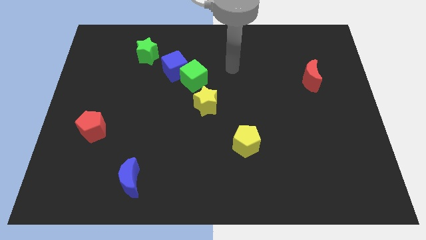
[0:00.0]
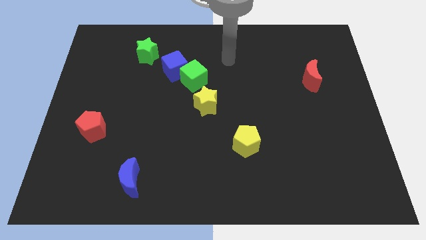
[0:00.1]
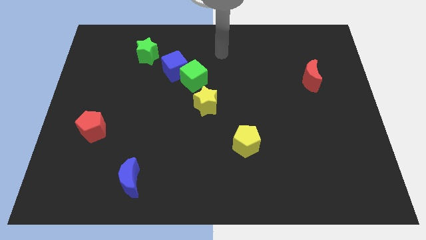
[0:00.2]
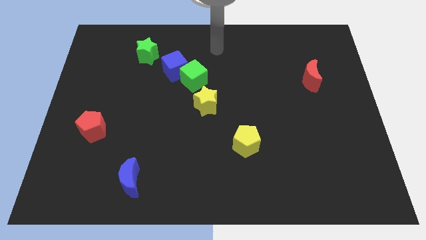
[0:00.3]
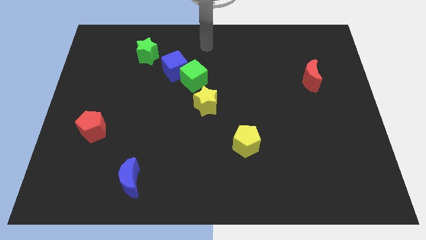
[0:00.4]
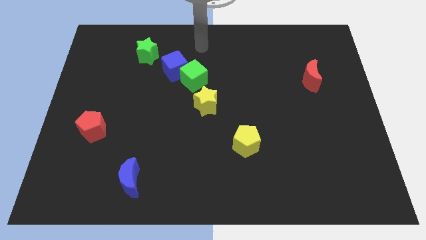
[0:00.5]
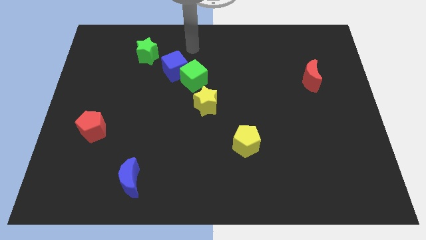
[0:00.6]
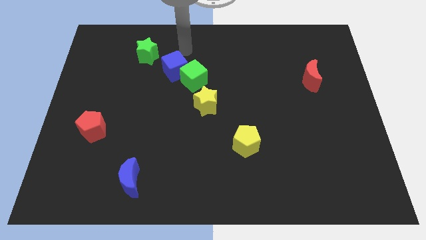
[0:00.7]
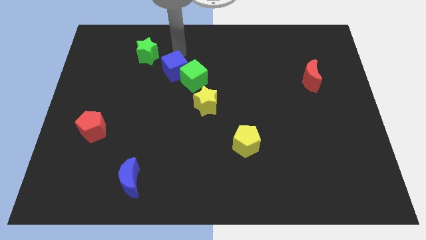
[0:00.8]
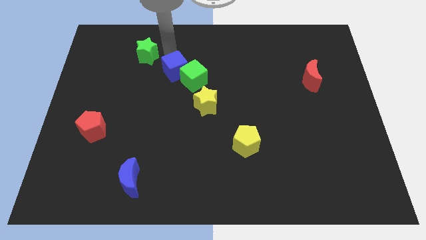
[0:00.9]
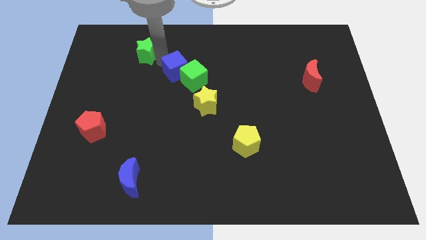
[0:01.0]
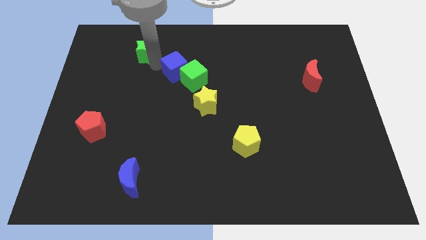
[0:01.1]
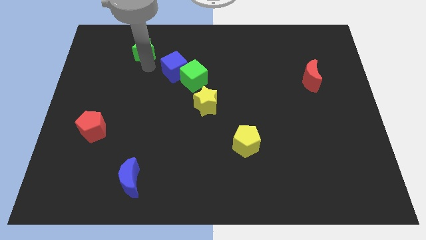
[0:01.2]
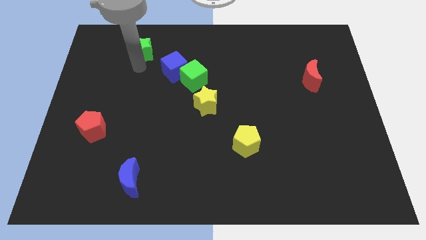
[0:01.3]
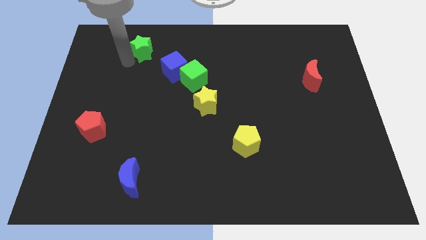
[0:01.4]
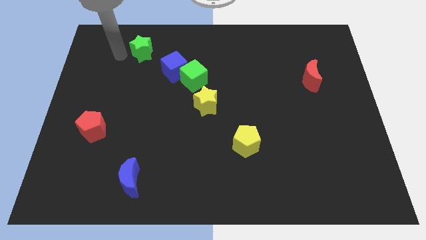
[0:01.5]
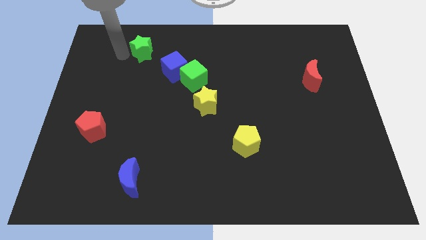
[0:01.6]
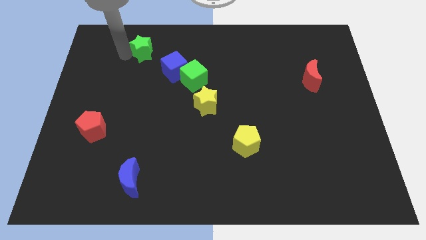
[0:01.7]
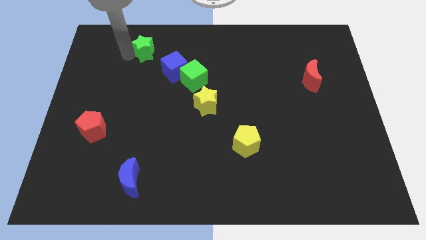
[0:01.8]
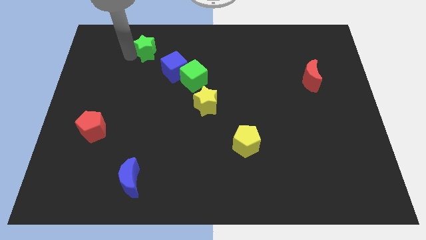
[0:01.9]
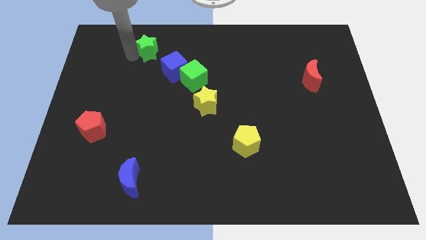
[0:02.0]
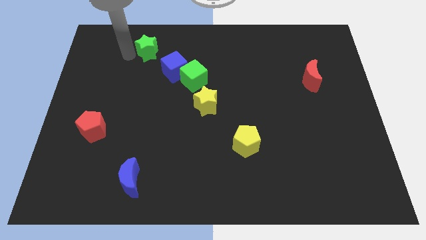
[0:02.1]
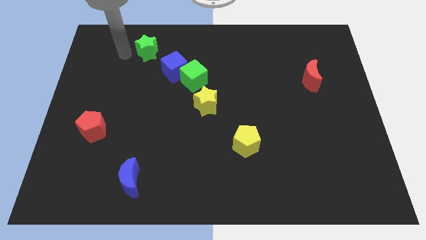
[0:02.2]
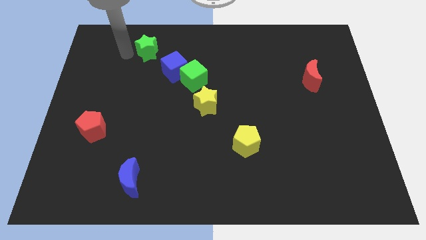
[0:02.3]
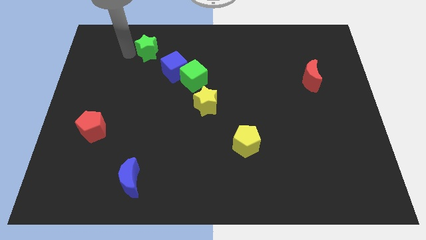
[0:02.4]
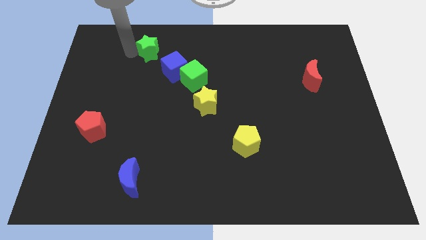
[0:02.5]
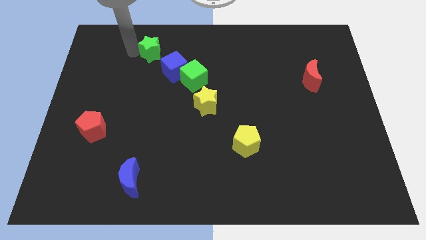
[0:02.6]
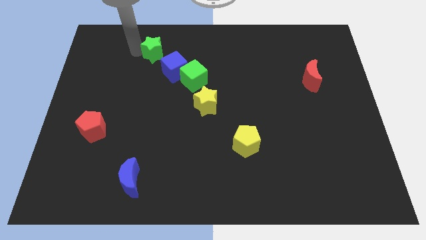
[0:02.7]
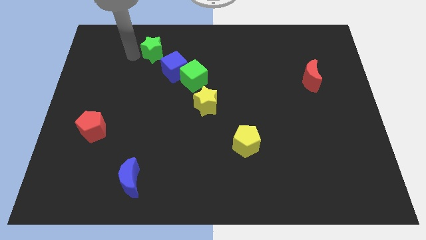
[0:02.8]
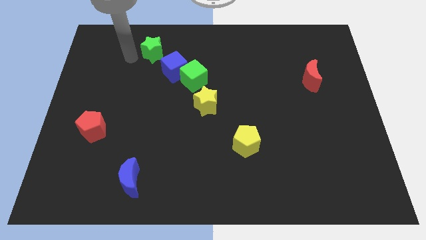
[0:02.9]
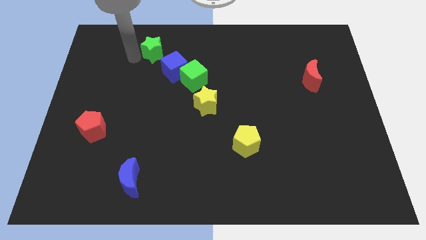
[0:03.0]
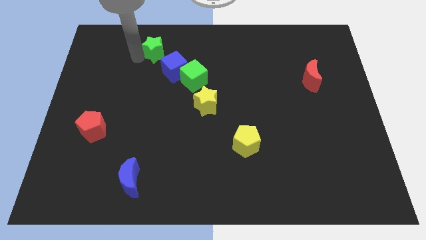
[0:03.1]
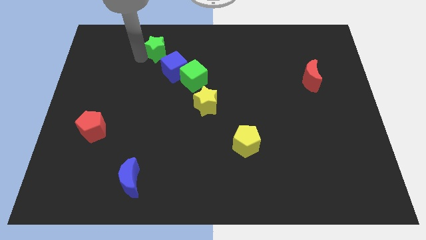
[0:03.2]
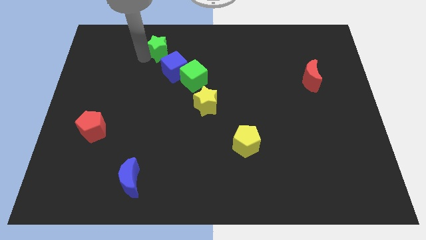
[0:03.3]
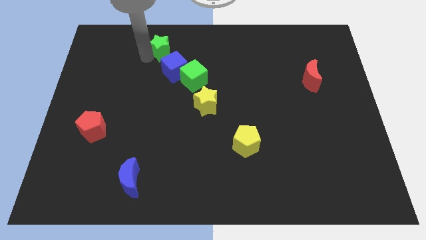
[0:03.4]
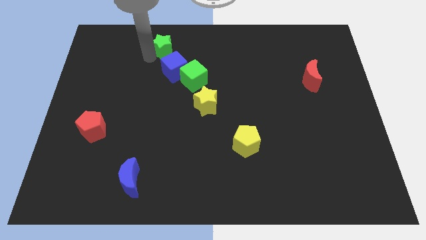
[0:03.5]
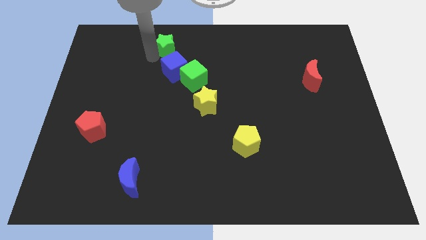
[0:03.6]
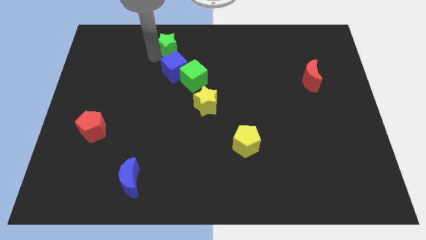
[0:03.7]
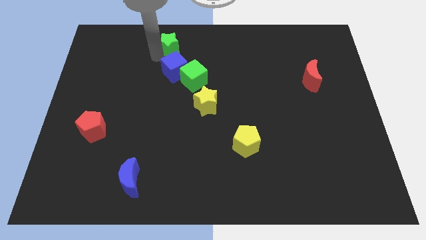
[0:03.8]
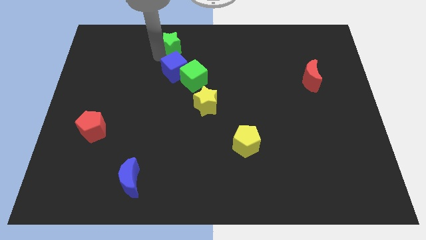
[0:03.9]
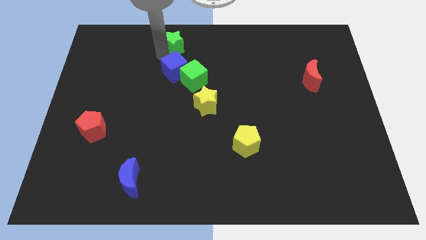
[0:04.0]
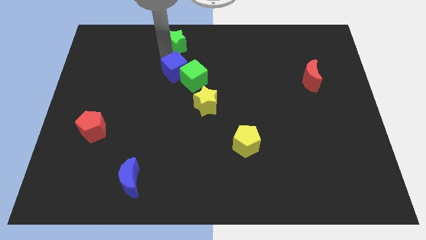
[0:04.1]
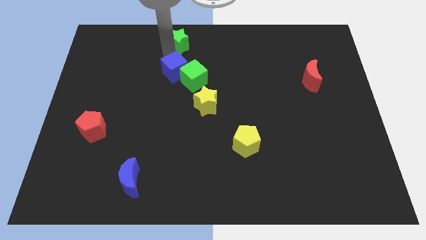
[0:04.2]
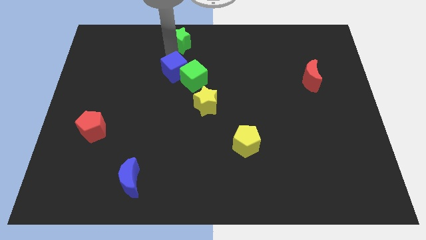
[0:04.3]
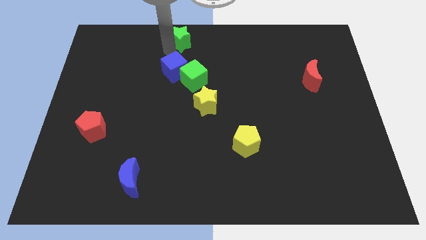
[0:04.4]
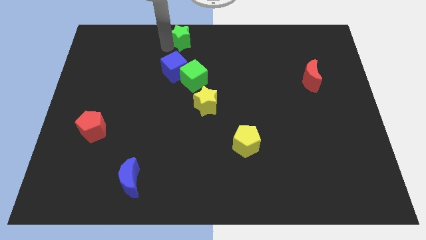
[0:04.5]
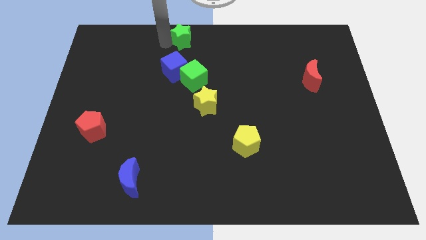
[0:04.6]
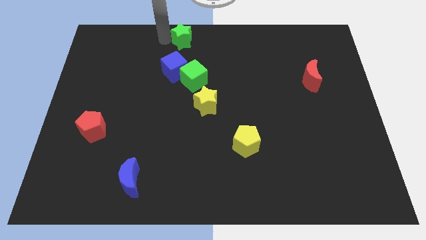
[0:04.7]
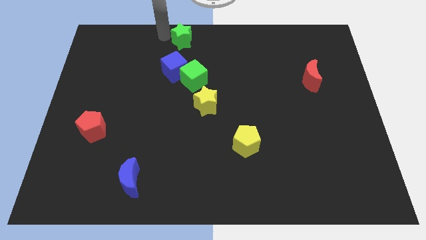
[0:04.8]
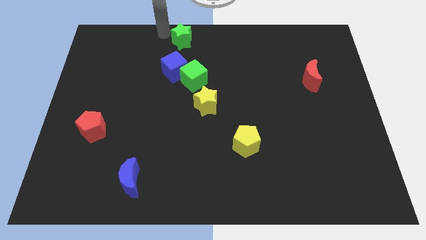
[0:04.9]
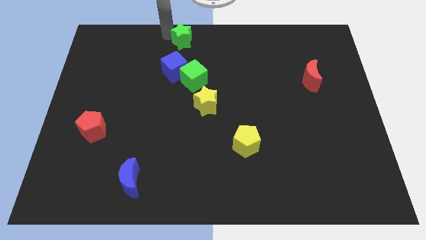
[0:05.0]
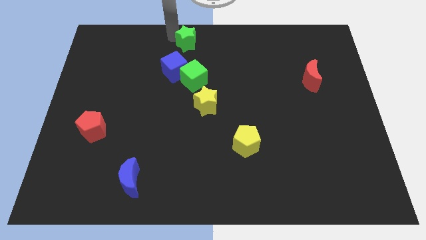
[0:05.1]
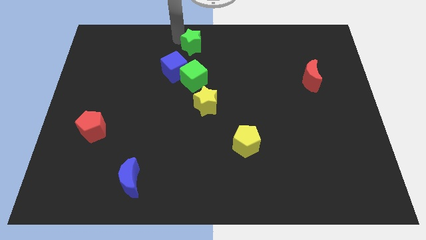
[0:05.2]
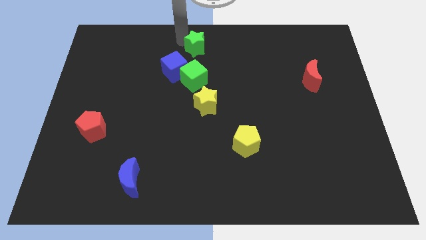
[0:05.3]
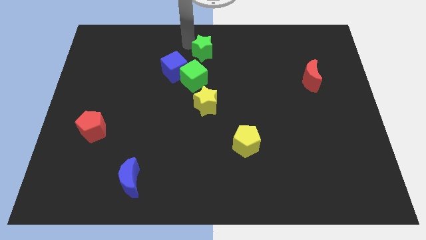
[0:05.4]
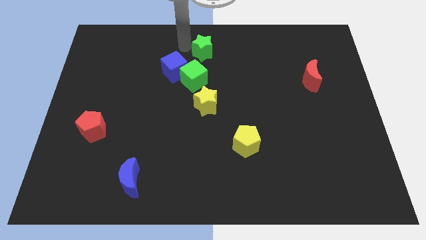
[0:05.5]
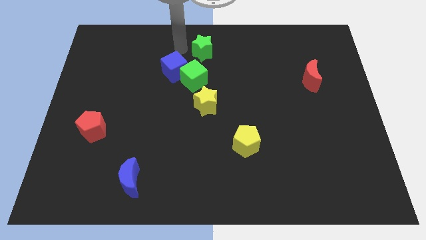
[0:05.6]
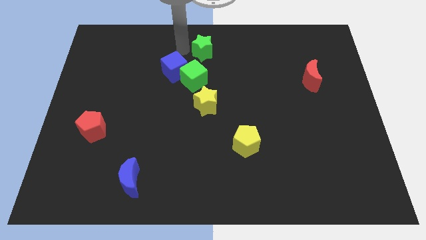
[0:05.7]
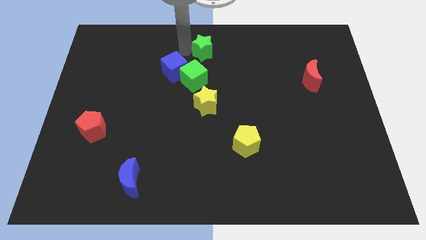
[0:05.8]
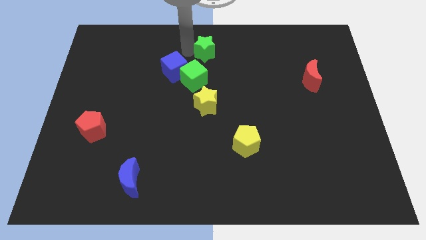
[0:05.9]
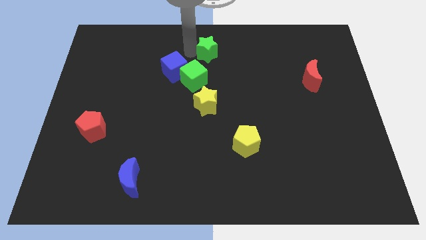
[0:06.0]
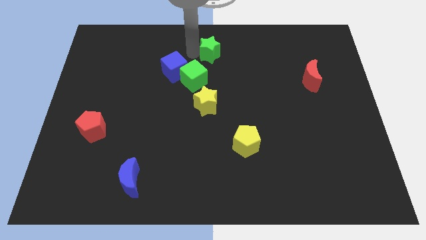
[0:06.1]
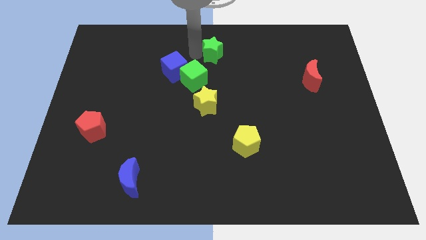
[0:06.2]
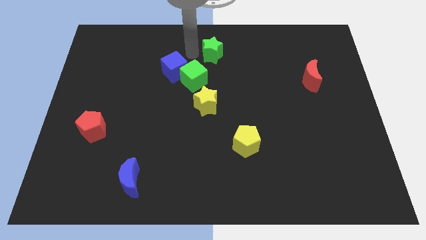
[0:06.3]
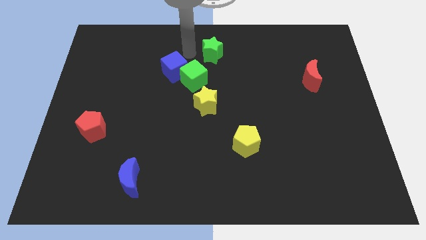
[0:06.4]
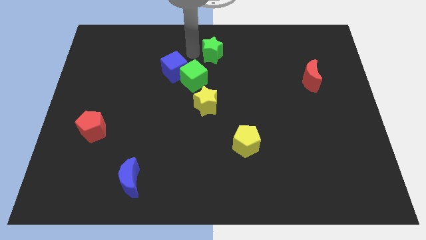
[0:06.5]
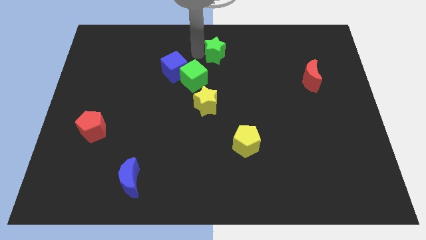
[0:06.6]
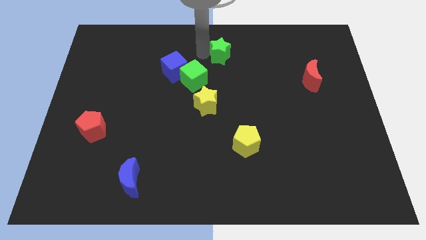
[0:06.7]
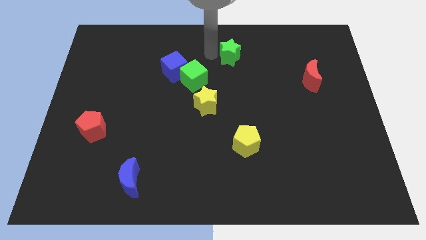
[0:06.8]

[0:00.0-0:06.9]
move the green star right

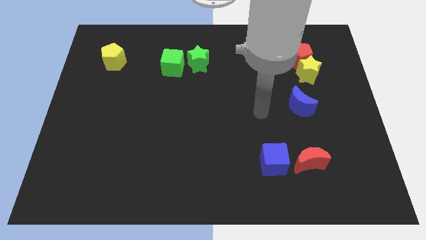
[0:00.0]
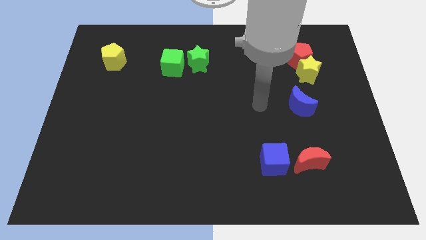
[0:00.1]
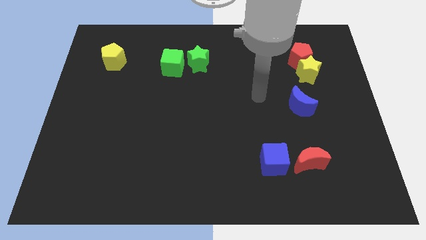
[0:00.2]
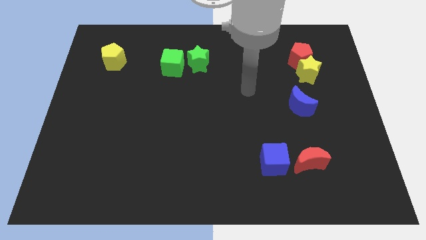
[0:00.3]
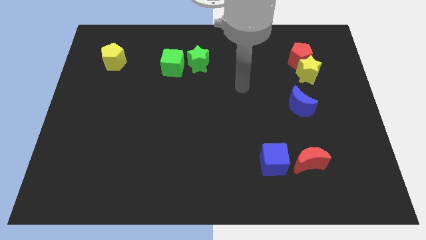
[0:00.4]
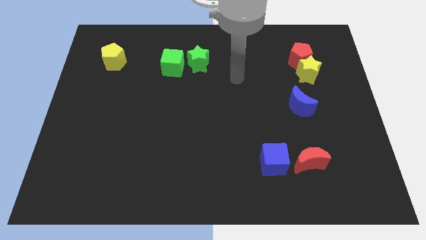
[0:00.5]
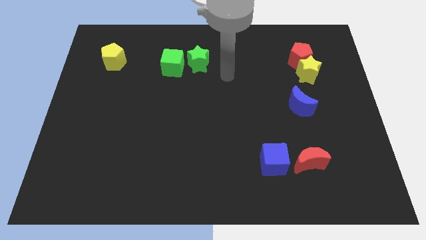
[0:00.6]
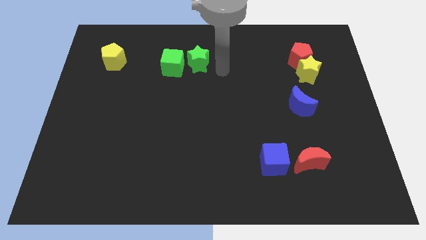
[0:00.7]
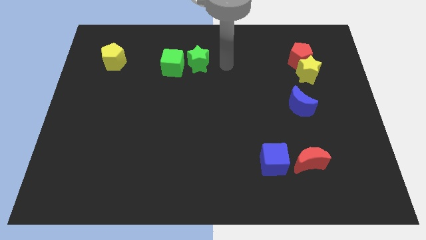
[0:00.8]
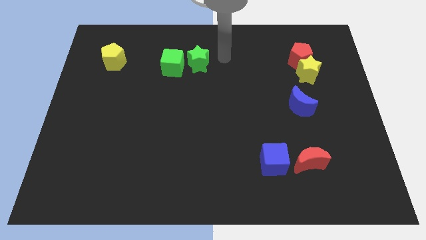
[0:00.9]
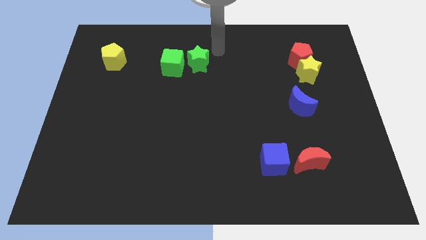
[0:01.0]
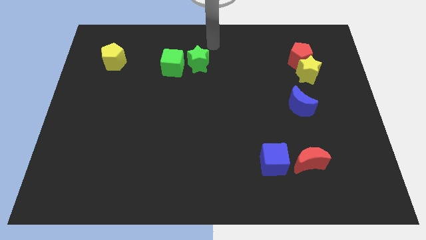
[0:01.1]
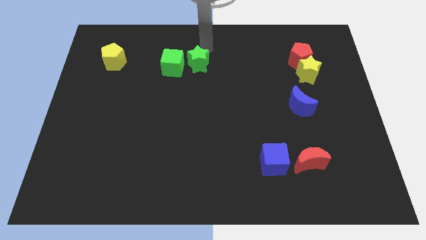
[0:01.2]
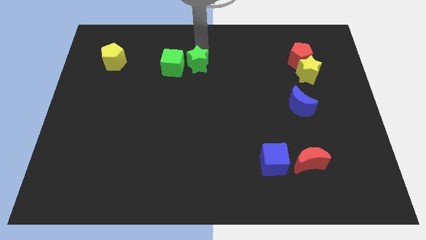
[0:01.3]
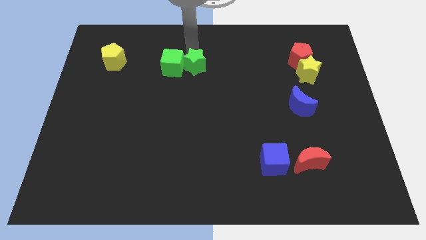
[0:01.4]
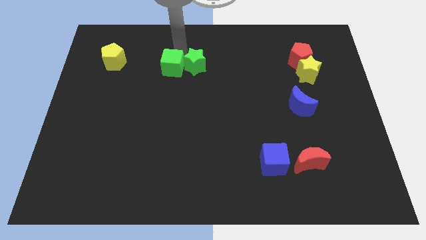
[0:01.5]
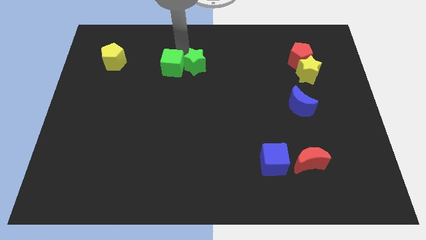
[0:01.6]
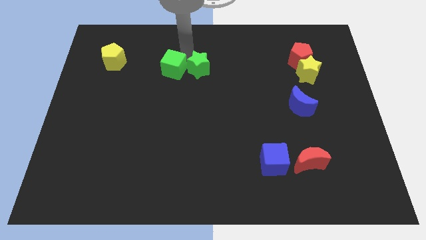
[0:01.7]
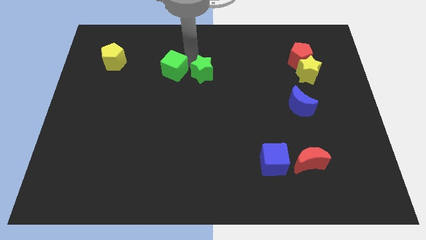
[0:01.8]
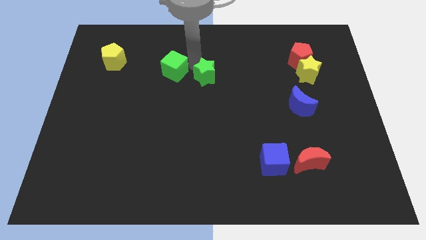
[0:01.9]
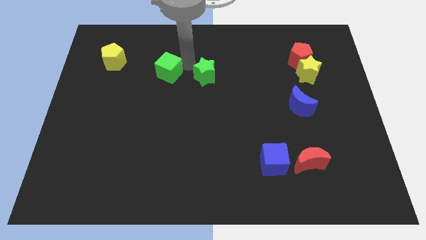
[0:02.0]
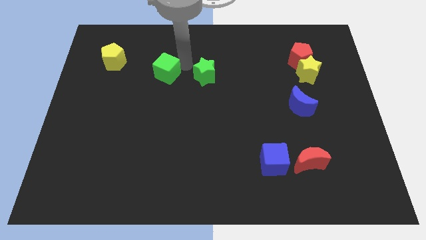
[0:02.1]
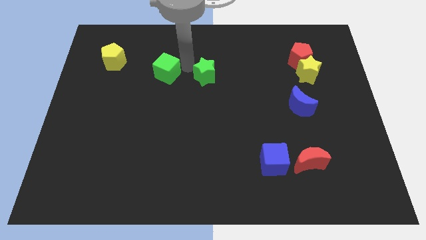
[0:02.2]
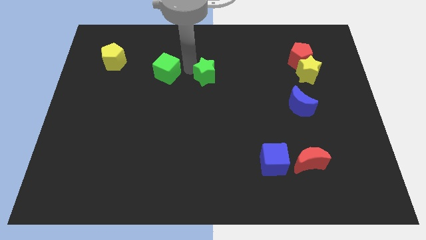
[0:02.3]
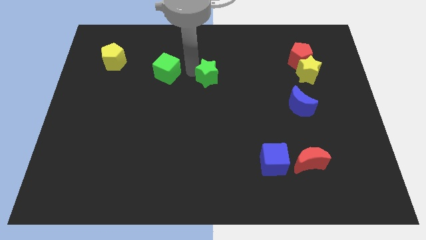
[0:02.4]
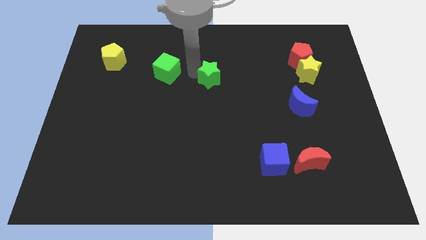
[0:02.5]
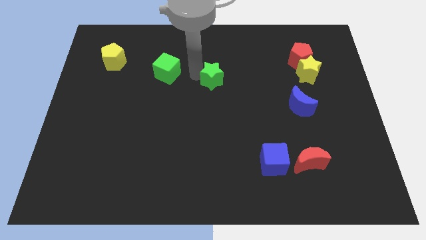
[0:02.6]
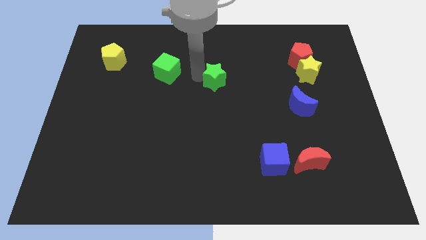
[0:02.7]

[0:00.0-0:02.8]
slightly push the green star downwards and then to the right
